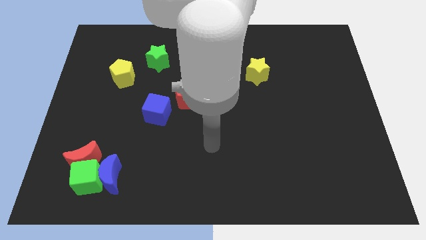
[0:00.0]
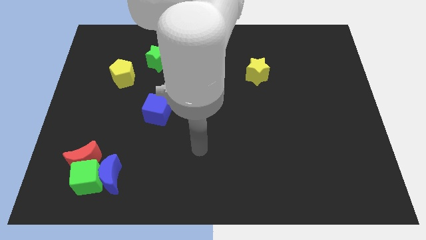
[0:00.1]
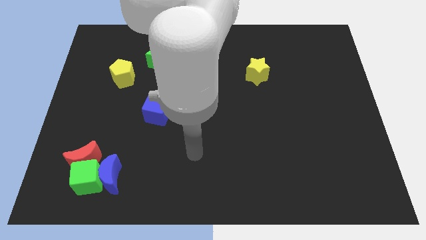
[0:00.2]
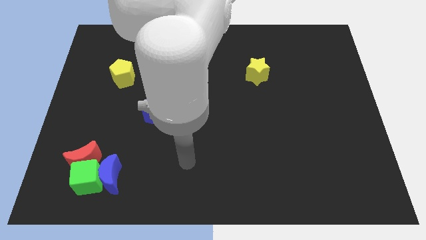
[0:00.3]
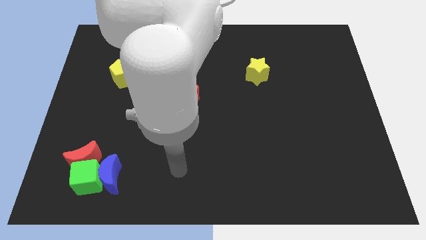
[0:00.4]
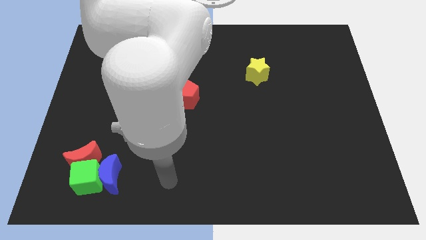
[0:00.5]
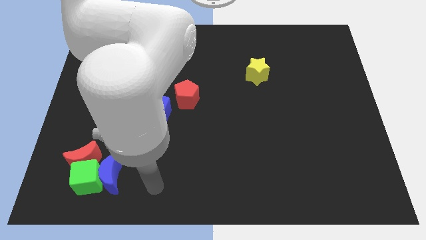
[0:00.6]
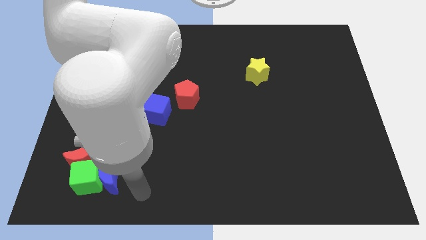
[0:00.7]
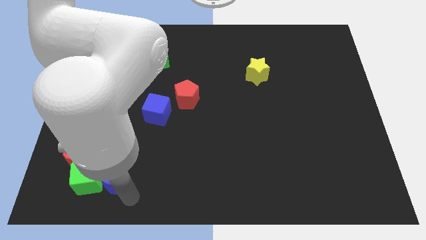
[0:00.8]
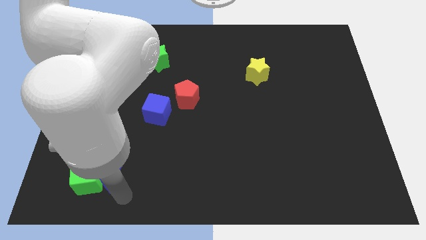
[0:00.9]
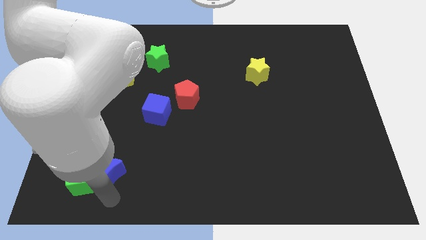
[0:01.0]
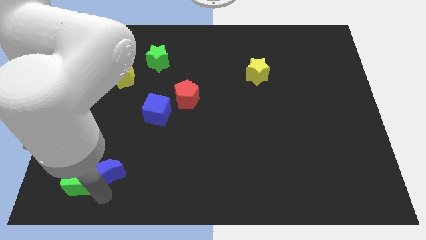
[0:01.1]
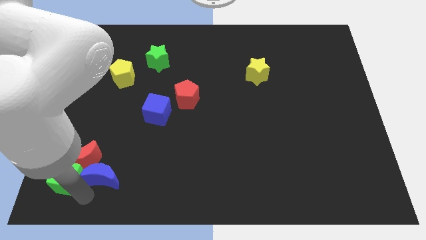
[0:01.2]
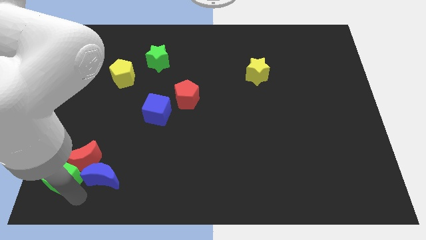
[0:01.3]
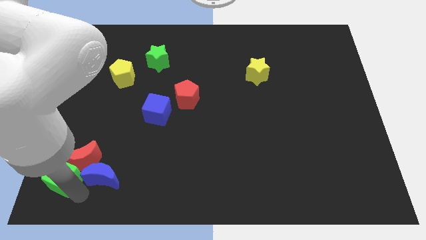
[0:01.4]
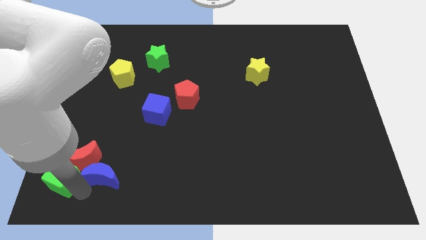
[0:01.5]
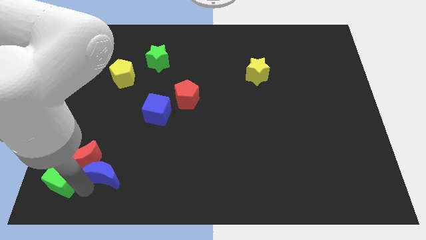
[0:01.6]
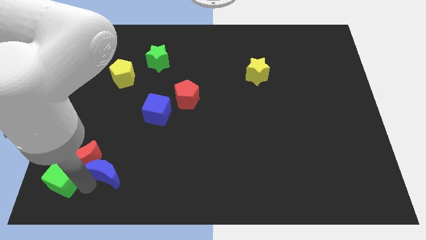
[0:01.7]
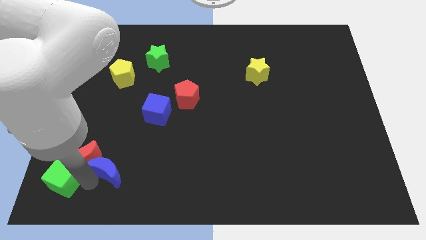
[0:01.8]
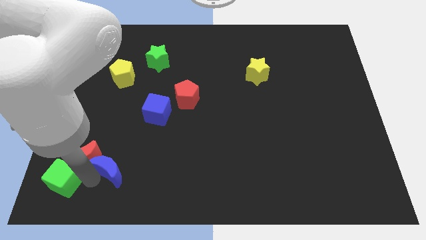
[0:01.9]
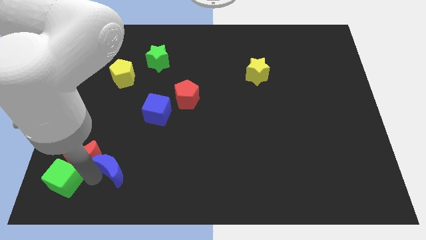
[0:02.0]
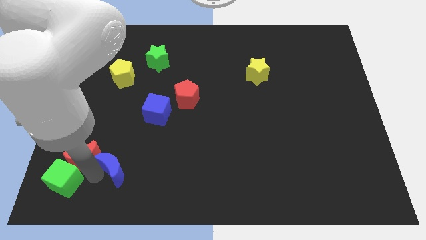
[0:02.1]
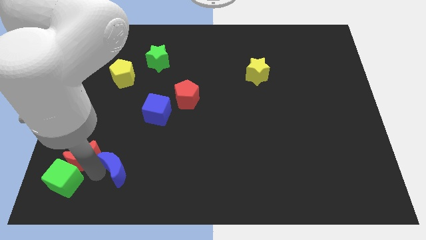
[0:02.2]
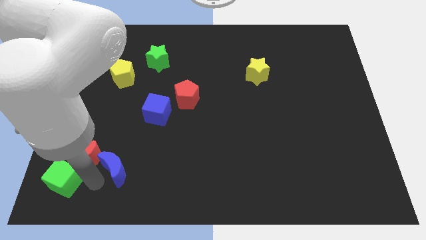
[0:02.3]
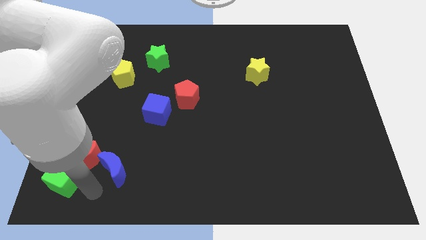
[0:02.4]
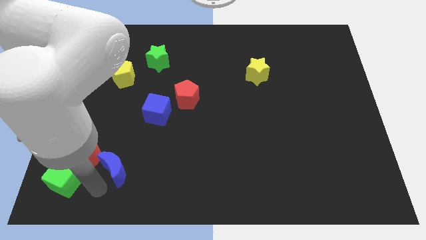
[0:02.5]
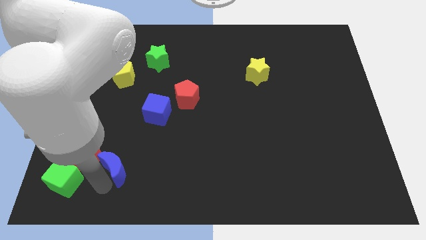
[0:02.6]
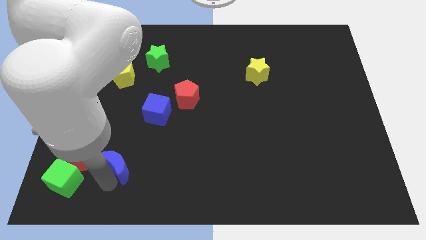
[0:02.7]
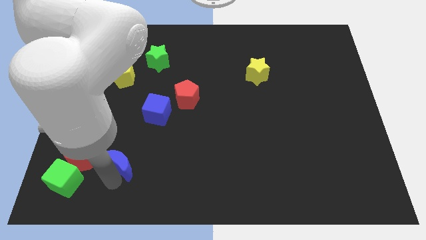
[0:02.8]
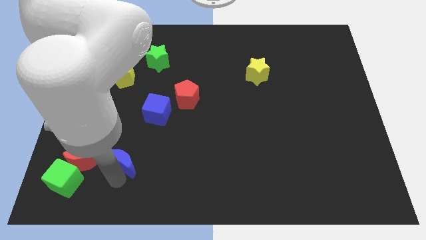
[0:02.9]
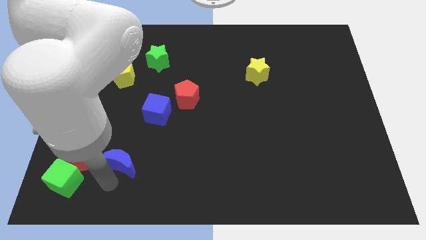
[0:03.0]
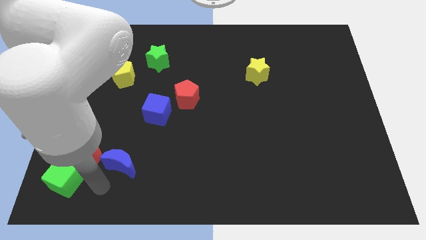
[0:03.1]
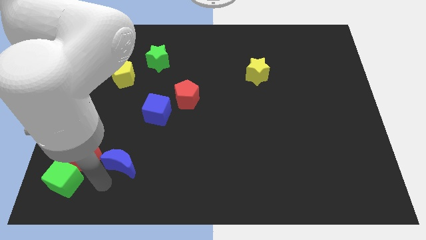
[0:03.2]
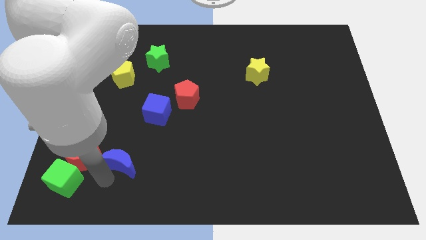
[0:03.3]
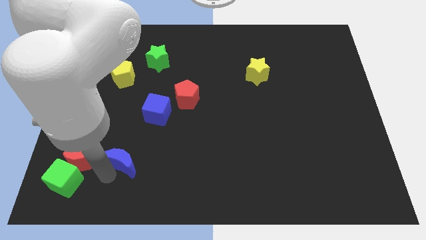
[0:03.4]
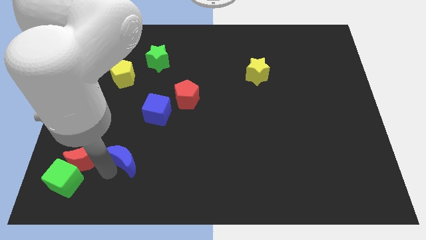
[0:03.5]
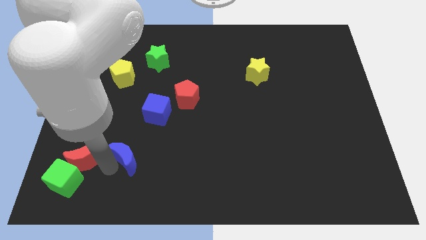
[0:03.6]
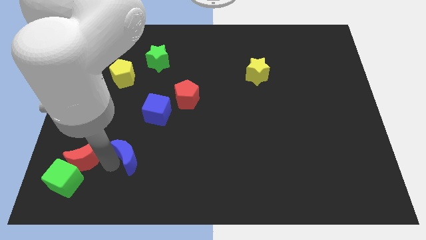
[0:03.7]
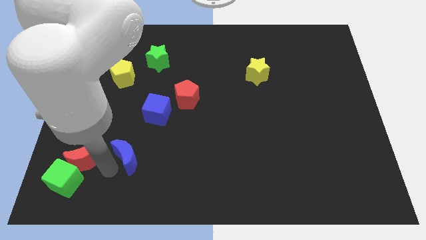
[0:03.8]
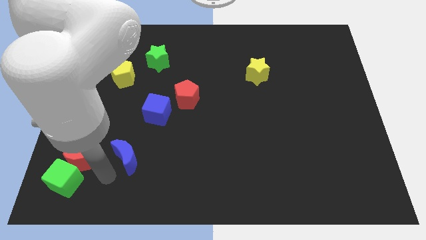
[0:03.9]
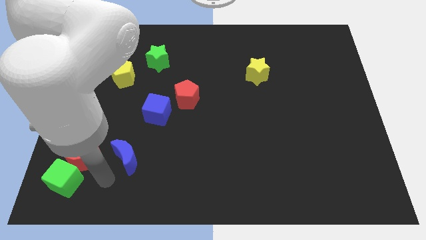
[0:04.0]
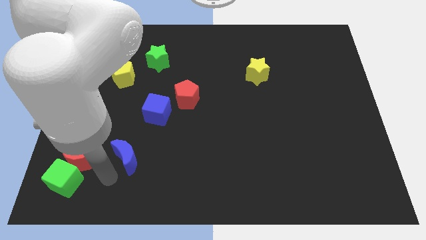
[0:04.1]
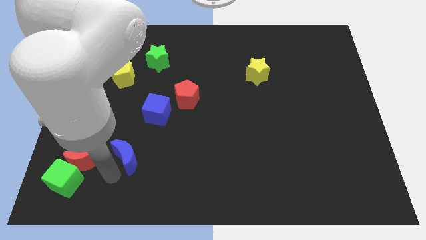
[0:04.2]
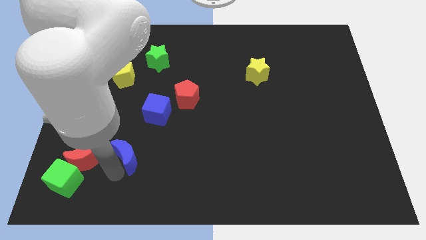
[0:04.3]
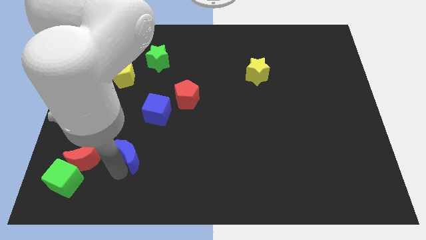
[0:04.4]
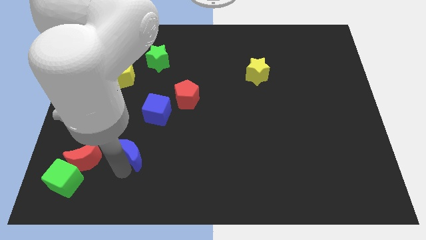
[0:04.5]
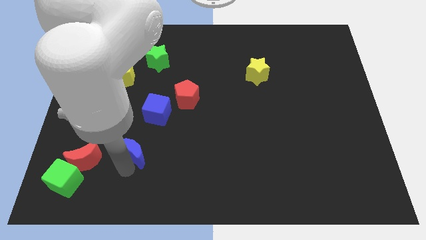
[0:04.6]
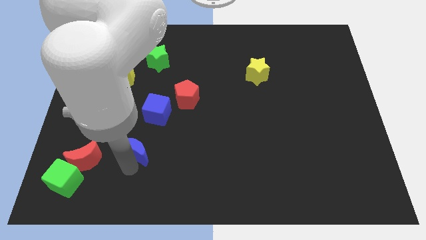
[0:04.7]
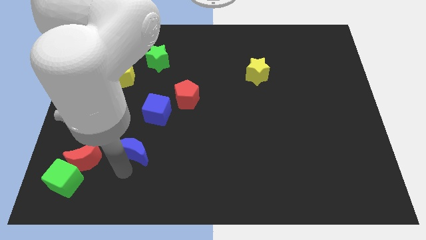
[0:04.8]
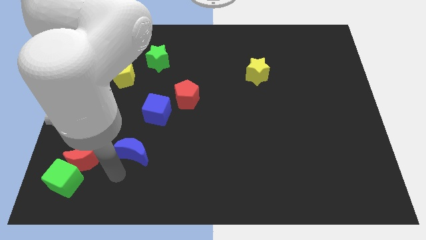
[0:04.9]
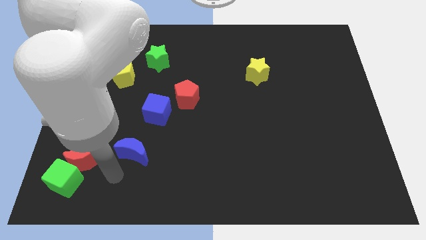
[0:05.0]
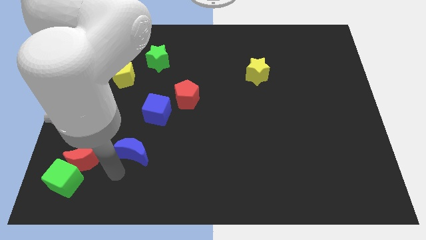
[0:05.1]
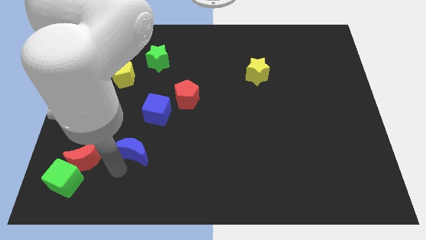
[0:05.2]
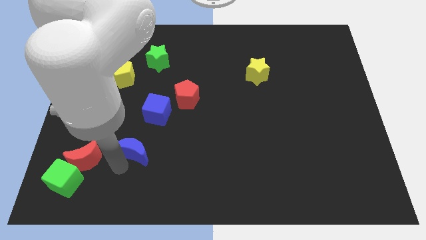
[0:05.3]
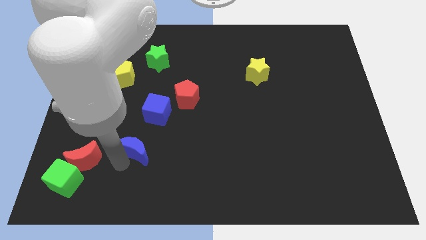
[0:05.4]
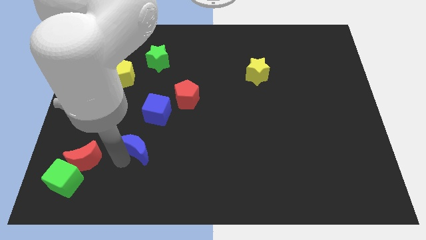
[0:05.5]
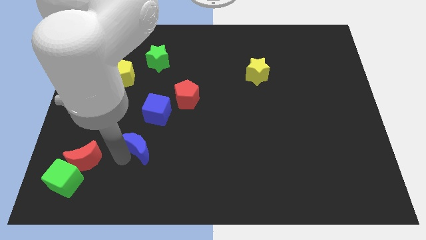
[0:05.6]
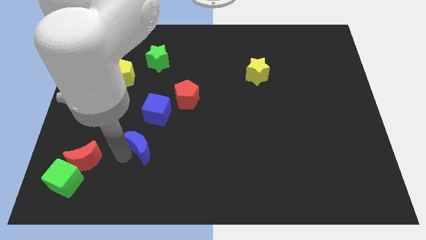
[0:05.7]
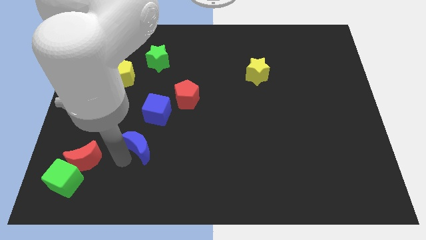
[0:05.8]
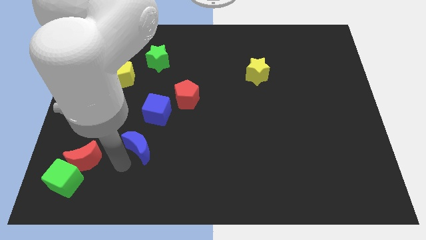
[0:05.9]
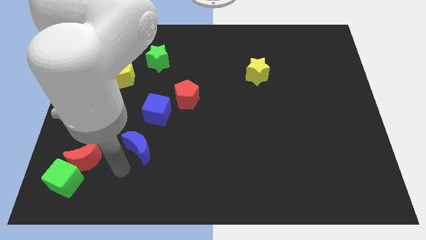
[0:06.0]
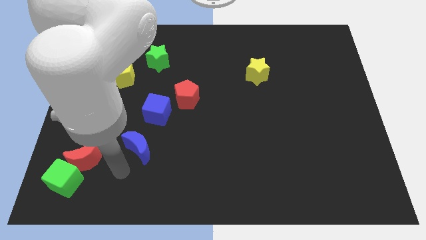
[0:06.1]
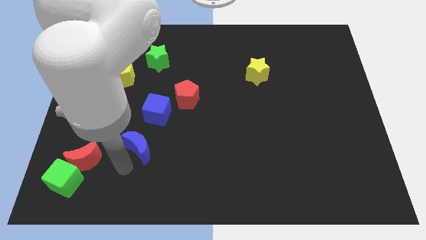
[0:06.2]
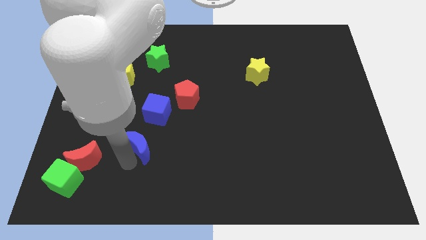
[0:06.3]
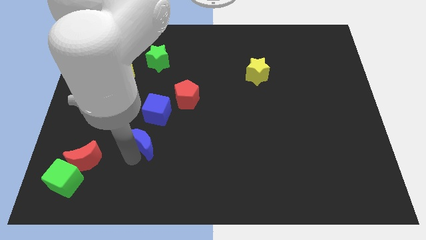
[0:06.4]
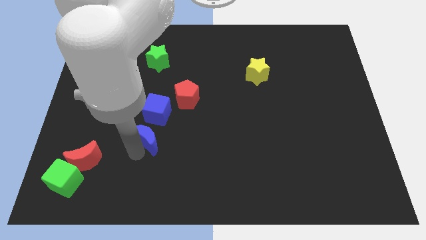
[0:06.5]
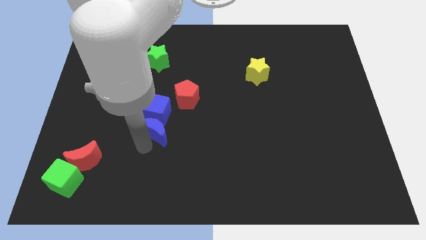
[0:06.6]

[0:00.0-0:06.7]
put the blue moon towards the blue cube
